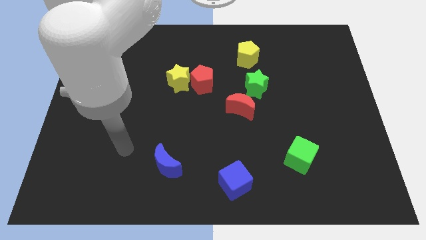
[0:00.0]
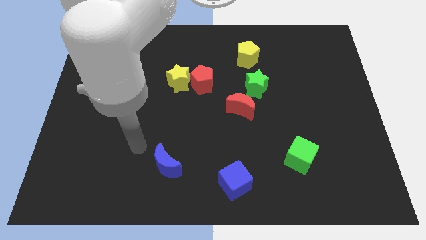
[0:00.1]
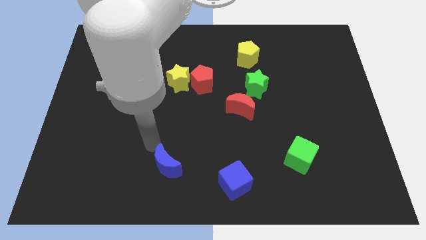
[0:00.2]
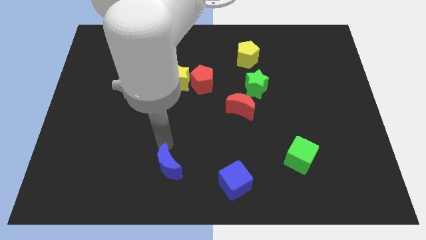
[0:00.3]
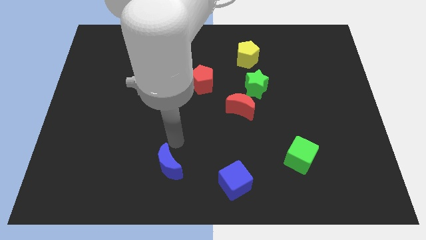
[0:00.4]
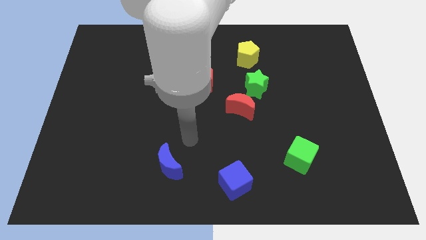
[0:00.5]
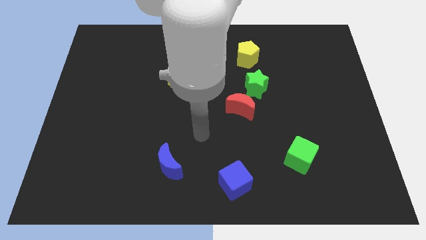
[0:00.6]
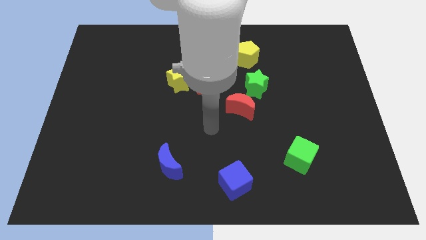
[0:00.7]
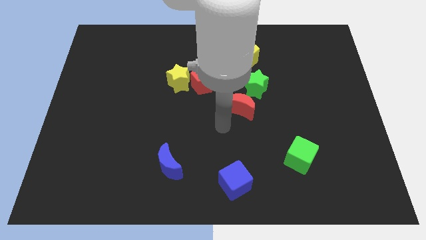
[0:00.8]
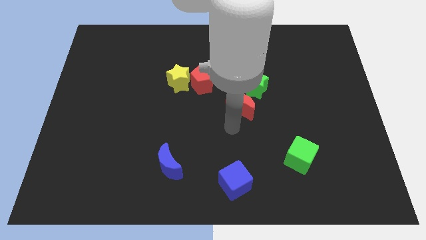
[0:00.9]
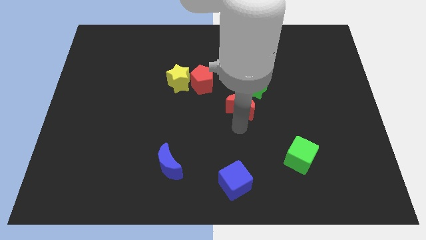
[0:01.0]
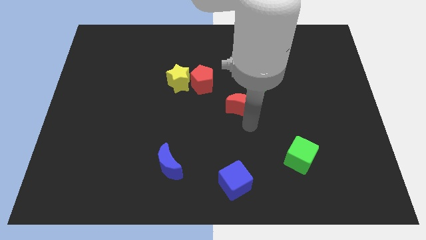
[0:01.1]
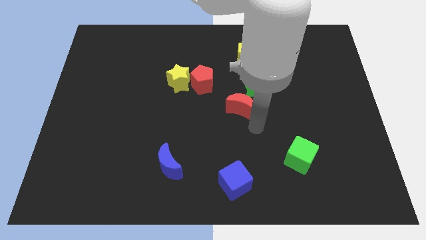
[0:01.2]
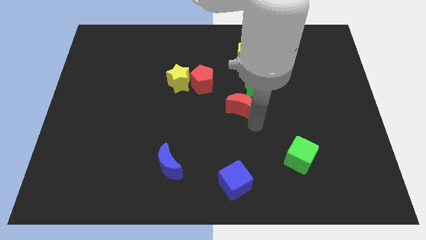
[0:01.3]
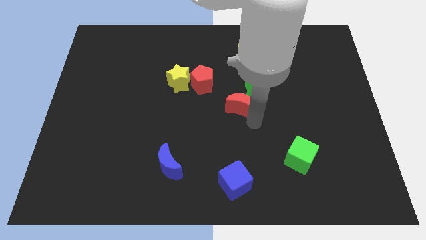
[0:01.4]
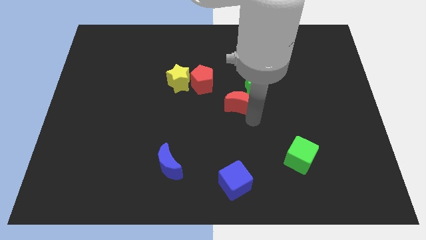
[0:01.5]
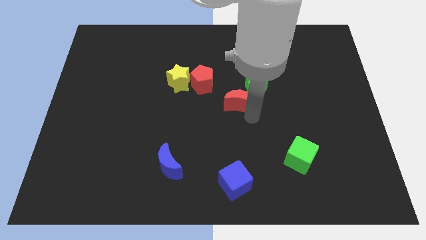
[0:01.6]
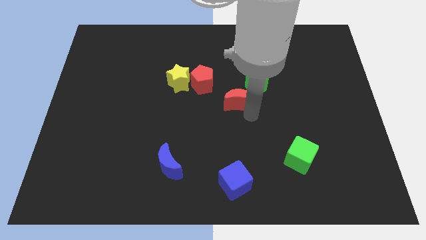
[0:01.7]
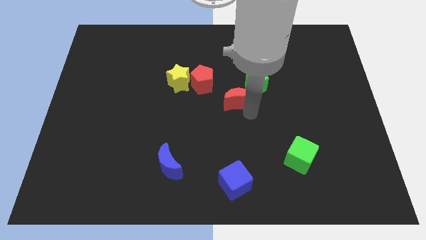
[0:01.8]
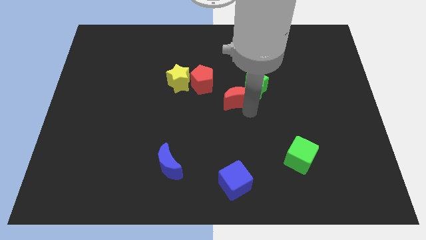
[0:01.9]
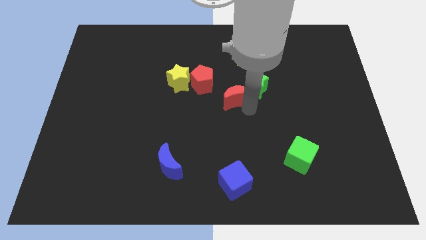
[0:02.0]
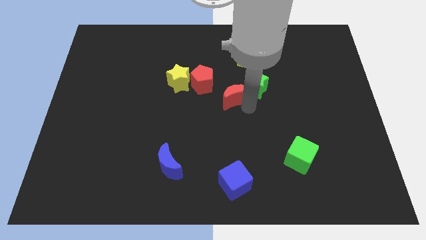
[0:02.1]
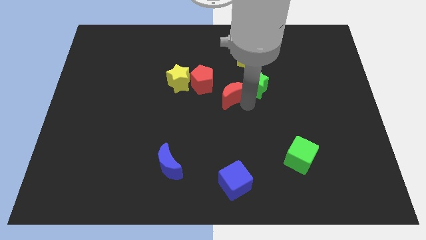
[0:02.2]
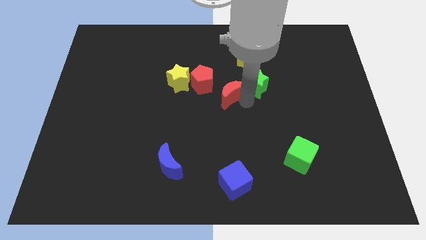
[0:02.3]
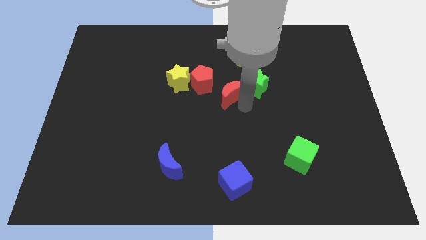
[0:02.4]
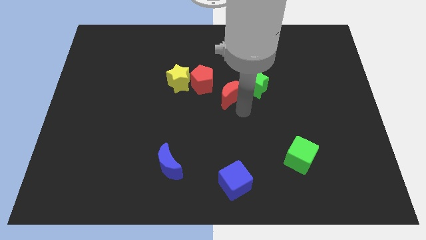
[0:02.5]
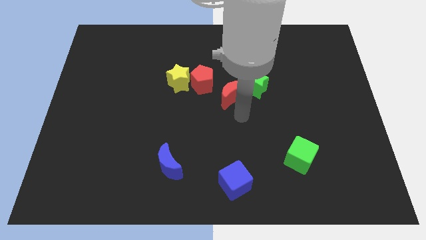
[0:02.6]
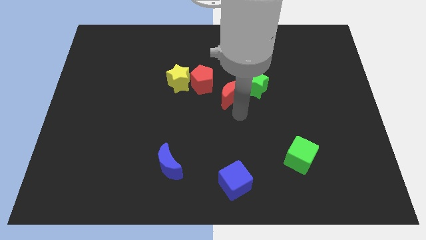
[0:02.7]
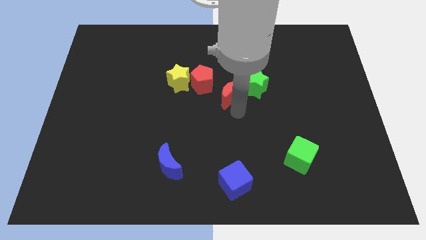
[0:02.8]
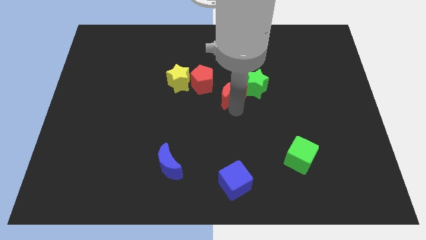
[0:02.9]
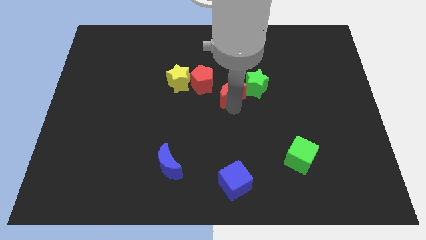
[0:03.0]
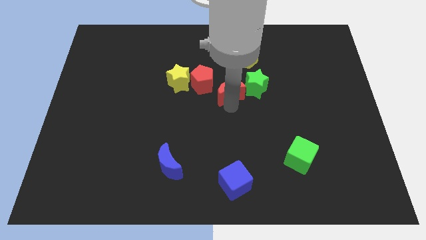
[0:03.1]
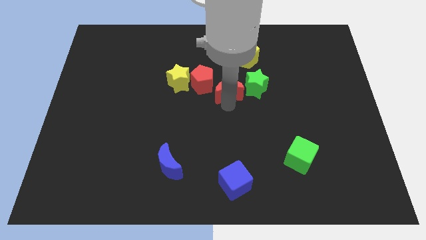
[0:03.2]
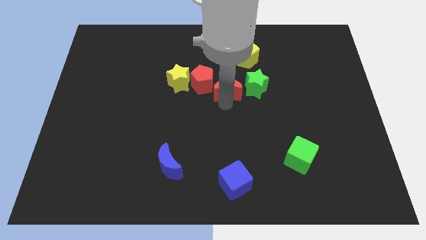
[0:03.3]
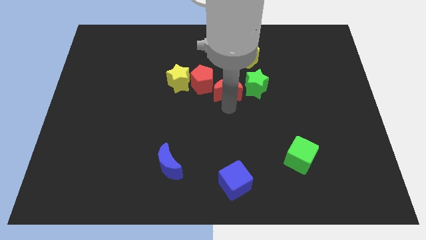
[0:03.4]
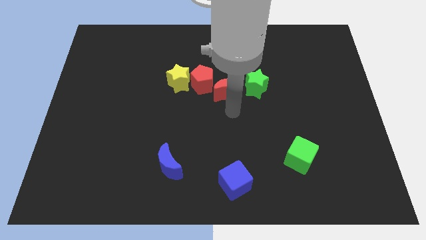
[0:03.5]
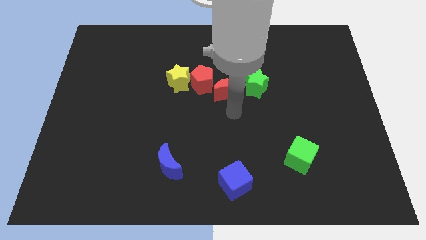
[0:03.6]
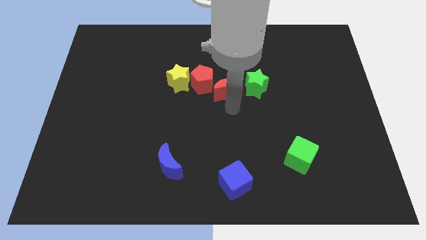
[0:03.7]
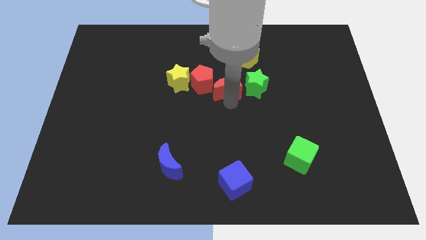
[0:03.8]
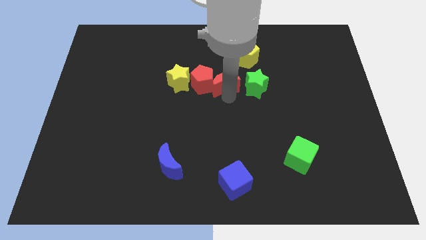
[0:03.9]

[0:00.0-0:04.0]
move the red moon slightly upwards and to the left

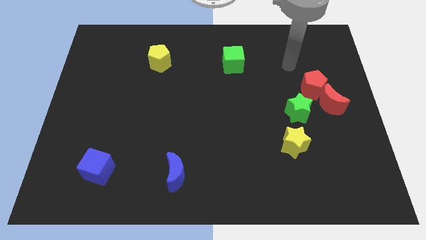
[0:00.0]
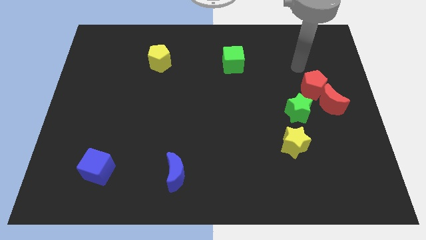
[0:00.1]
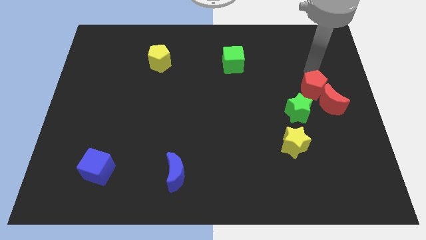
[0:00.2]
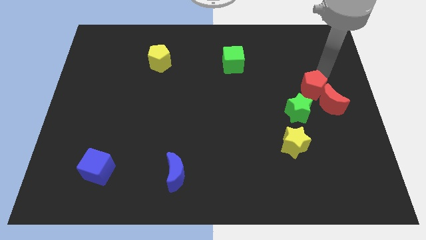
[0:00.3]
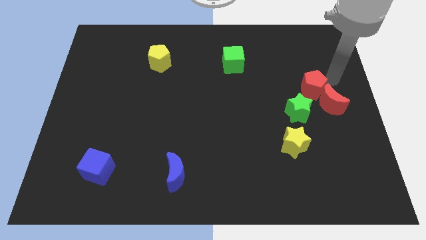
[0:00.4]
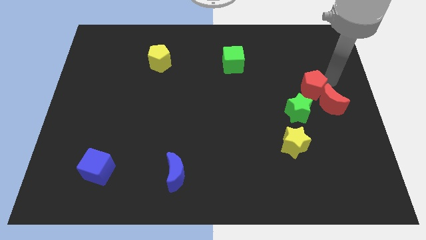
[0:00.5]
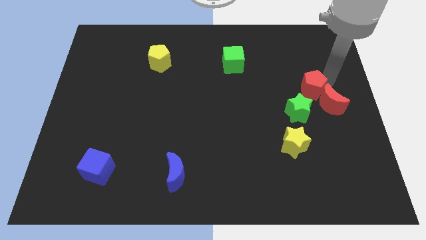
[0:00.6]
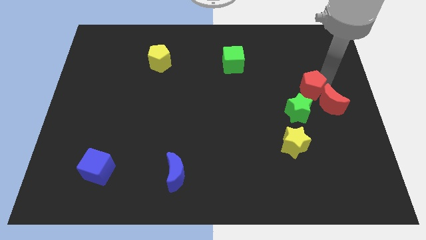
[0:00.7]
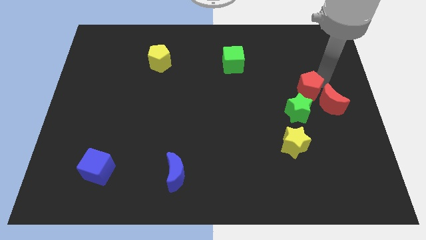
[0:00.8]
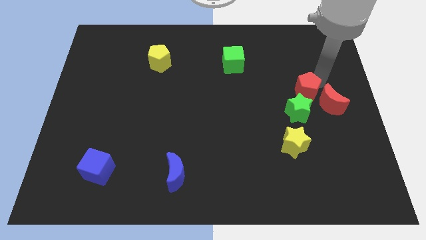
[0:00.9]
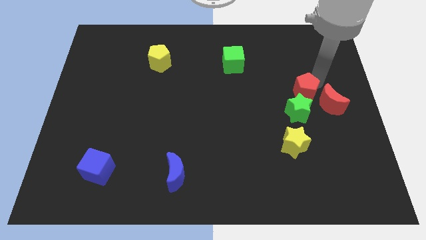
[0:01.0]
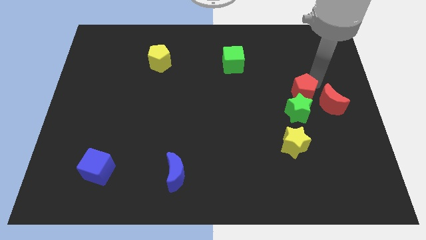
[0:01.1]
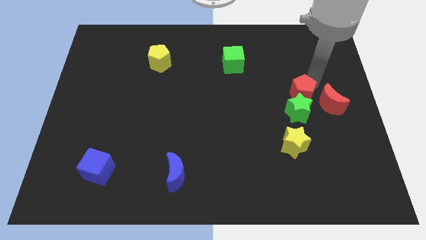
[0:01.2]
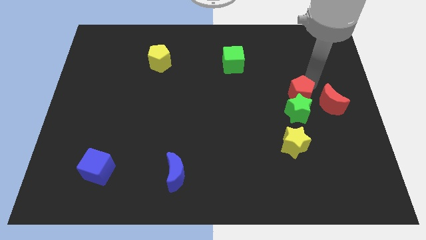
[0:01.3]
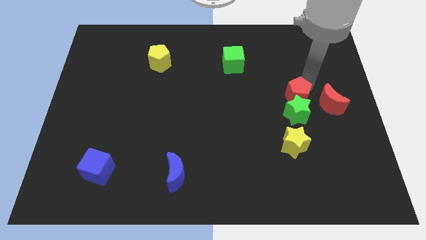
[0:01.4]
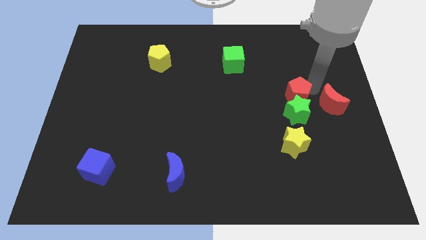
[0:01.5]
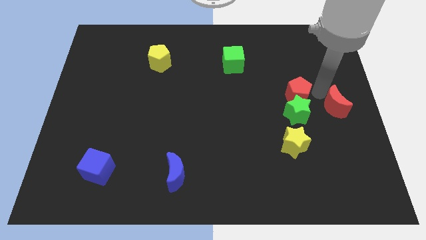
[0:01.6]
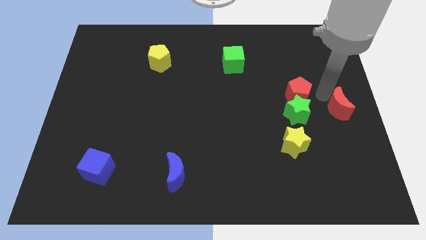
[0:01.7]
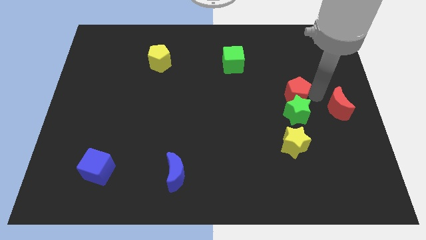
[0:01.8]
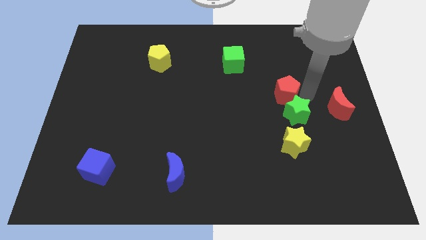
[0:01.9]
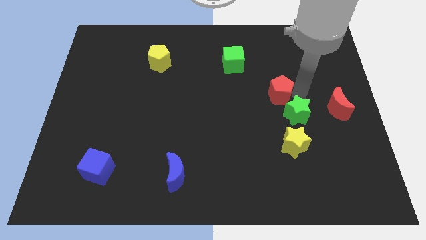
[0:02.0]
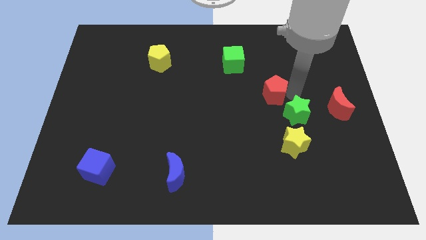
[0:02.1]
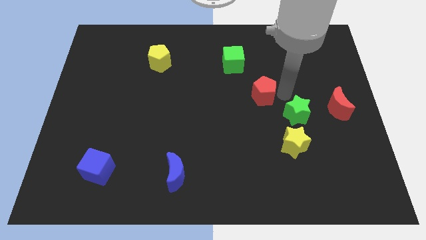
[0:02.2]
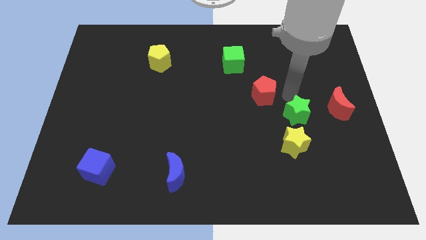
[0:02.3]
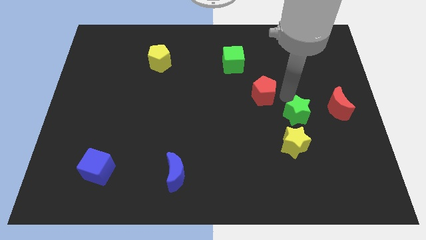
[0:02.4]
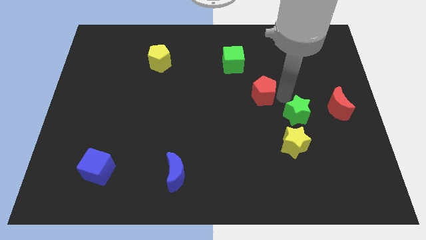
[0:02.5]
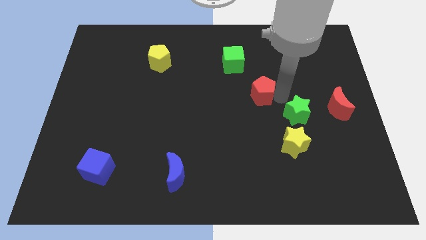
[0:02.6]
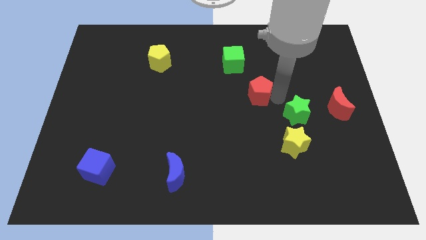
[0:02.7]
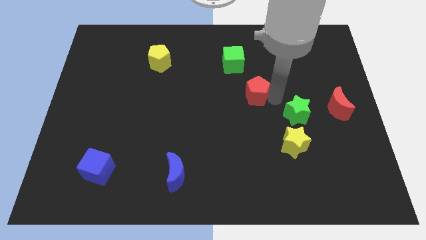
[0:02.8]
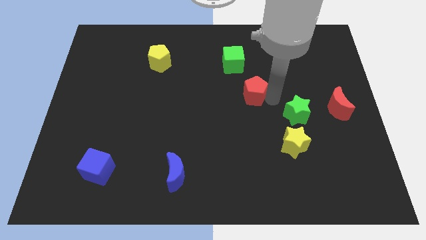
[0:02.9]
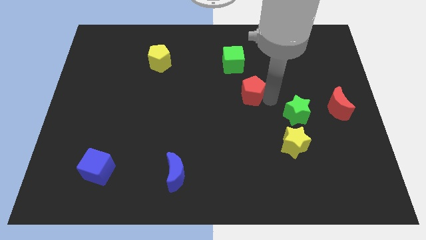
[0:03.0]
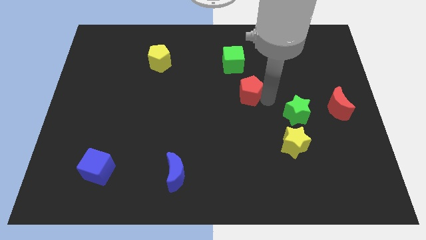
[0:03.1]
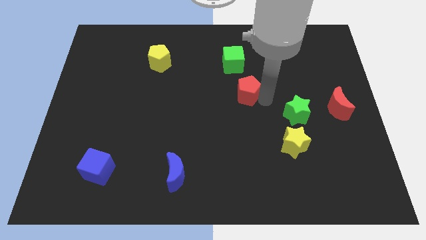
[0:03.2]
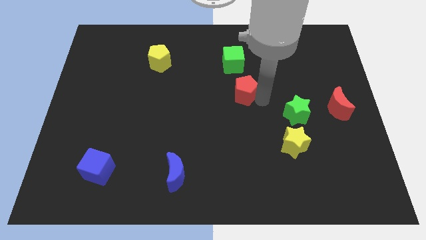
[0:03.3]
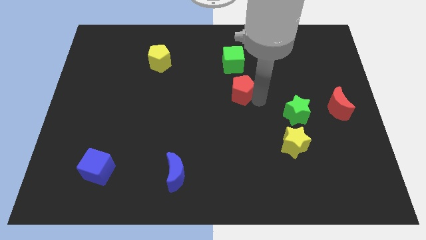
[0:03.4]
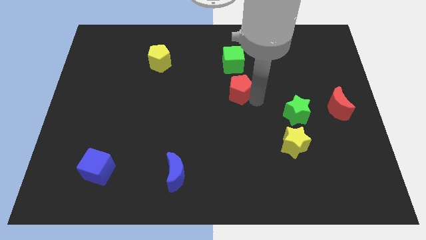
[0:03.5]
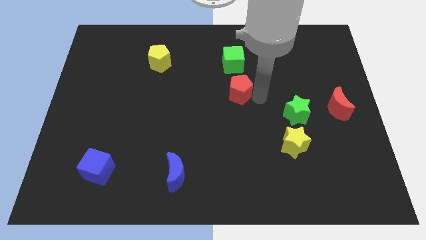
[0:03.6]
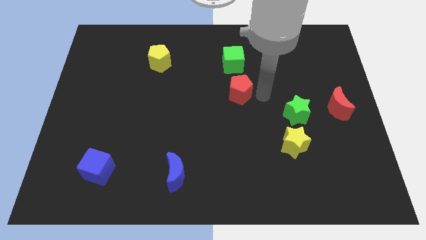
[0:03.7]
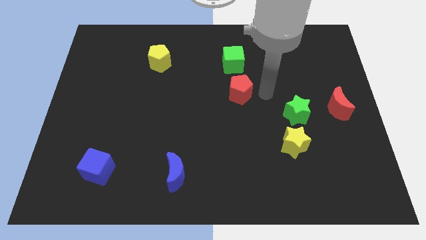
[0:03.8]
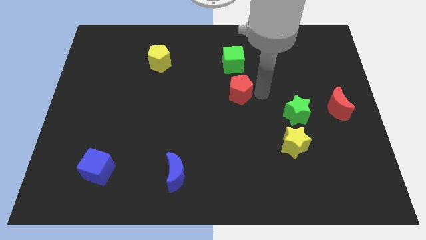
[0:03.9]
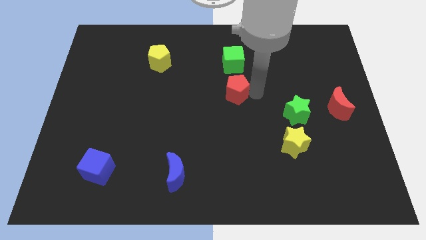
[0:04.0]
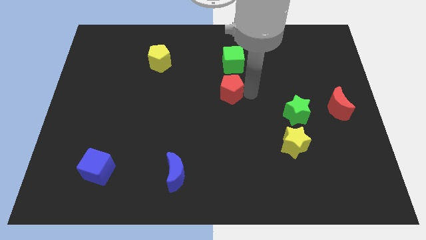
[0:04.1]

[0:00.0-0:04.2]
slide the red pentagon to the left
